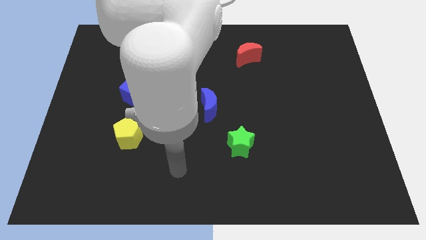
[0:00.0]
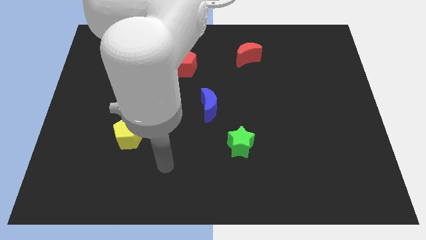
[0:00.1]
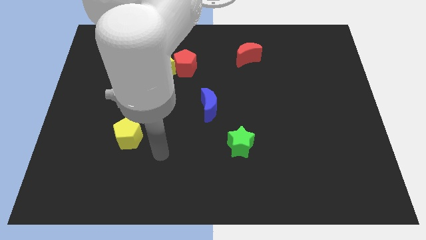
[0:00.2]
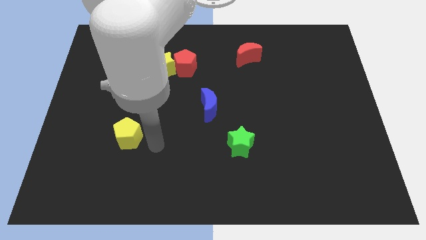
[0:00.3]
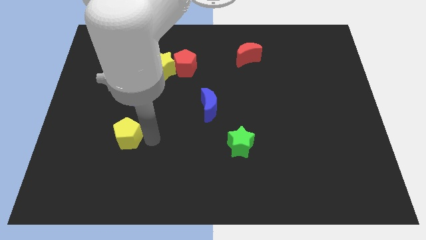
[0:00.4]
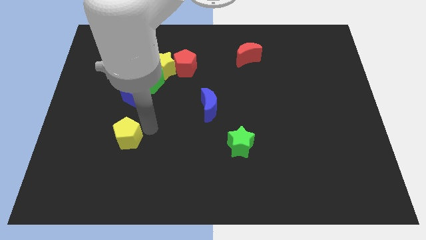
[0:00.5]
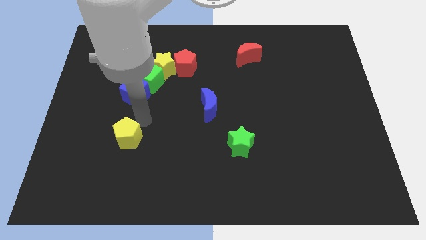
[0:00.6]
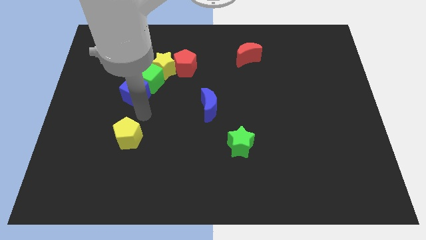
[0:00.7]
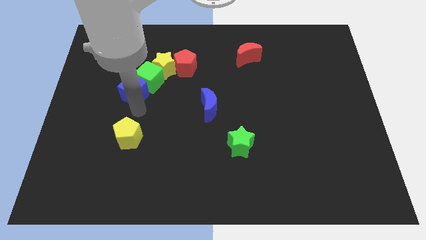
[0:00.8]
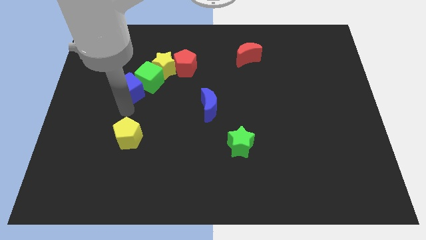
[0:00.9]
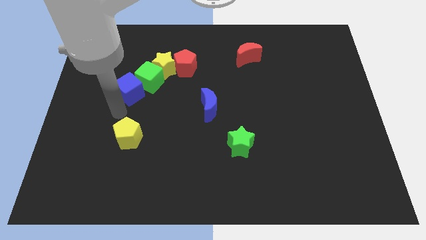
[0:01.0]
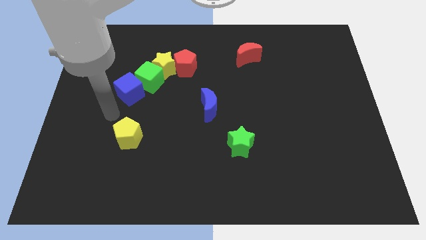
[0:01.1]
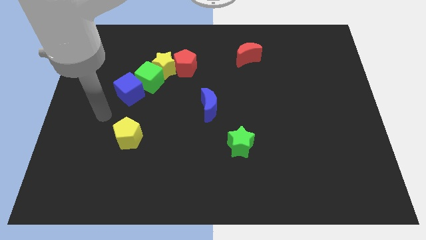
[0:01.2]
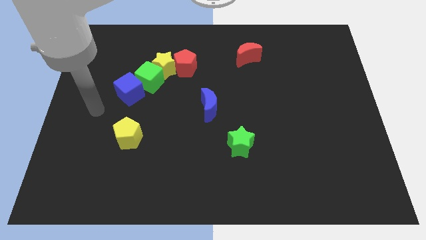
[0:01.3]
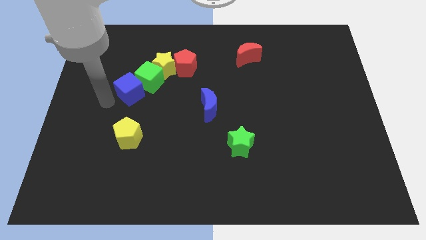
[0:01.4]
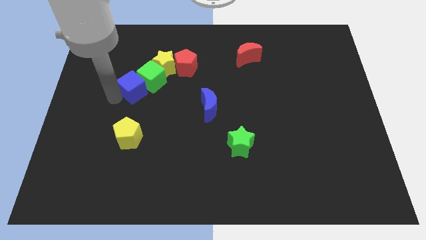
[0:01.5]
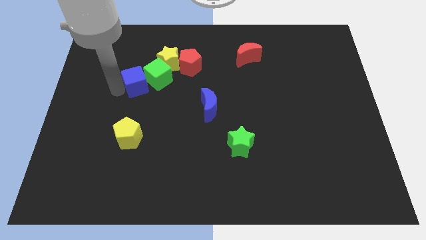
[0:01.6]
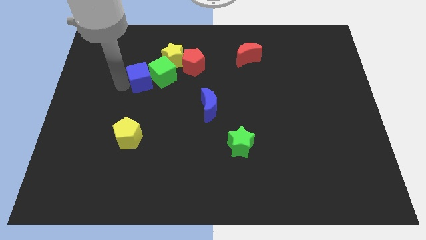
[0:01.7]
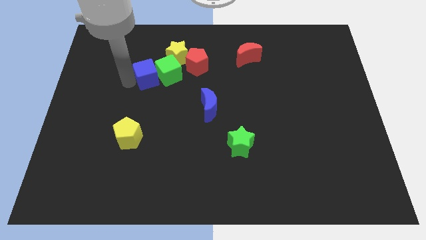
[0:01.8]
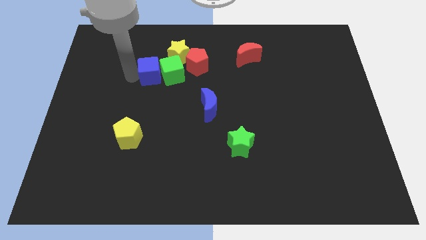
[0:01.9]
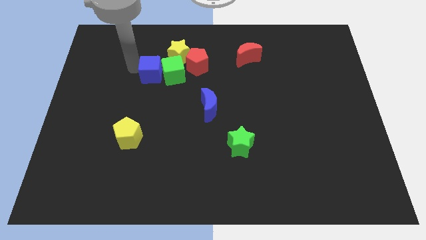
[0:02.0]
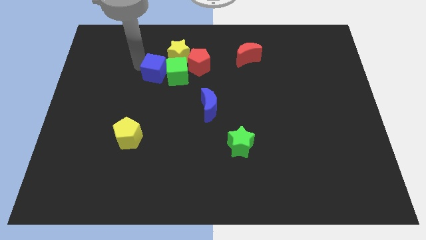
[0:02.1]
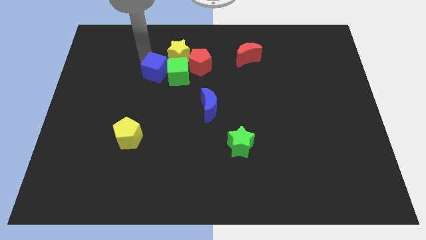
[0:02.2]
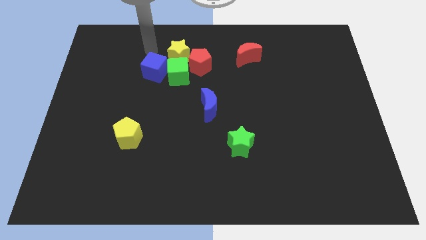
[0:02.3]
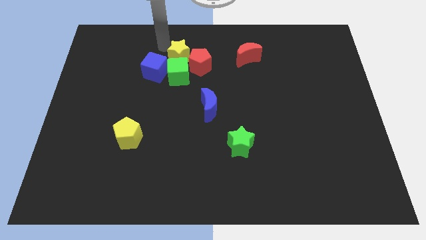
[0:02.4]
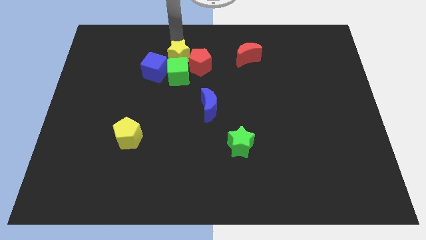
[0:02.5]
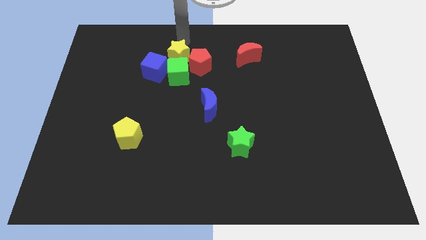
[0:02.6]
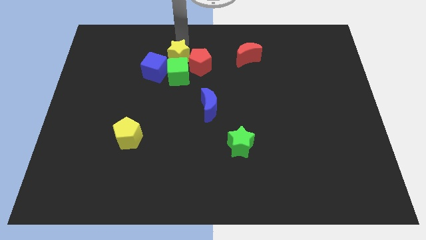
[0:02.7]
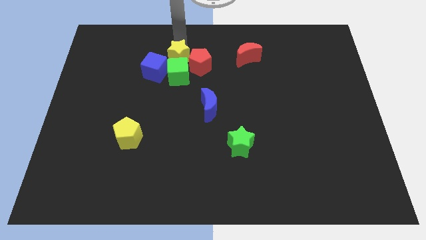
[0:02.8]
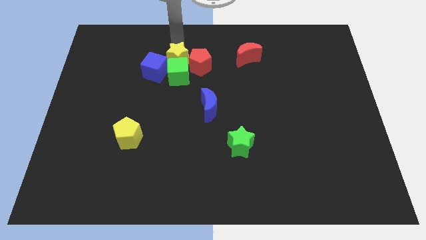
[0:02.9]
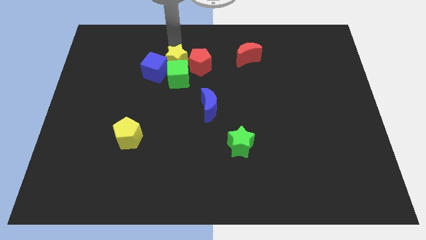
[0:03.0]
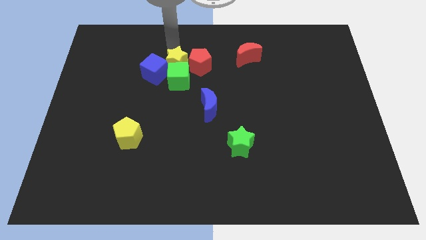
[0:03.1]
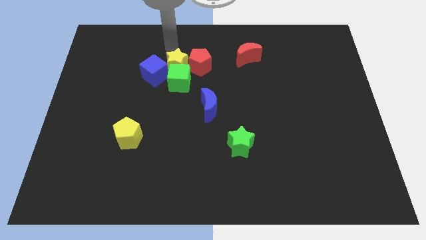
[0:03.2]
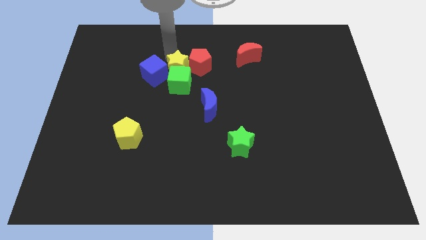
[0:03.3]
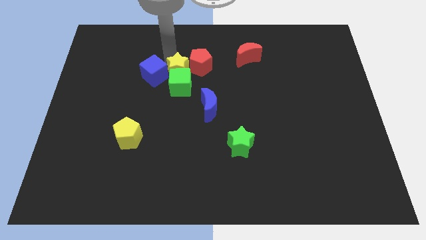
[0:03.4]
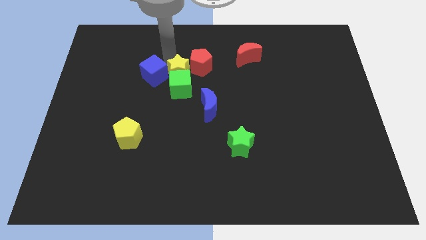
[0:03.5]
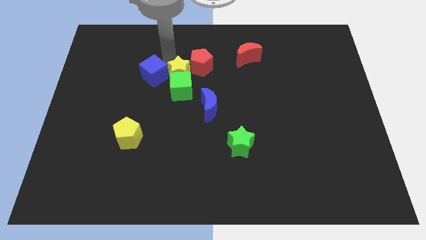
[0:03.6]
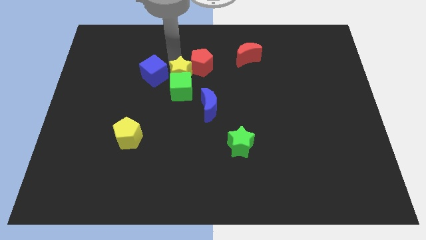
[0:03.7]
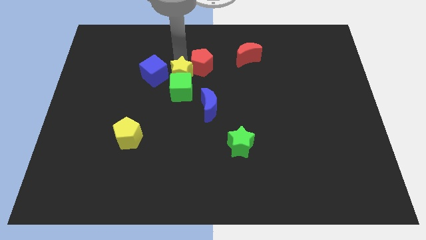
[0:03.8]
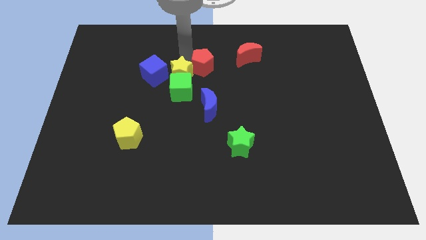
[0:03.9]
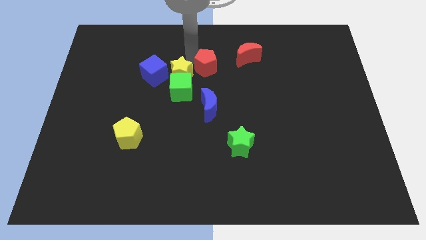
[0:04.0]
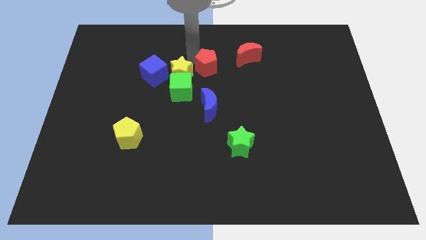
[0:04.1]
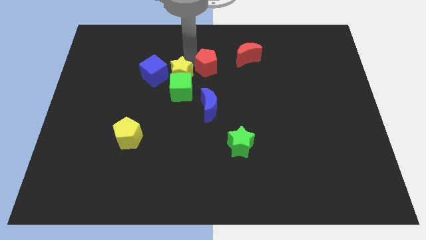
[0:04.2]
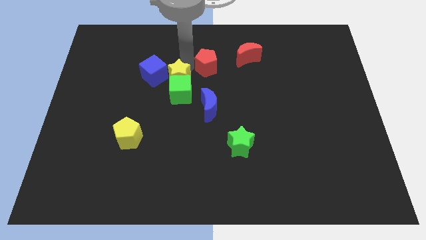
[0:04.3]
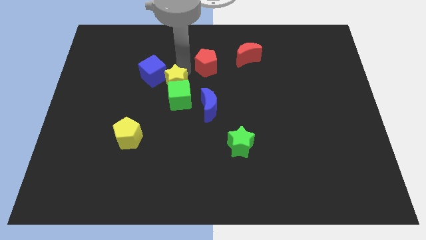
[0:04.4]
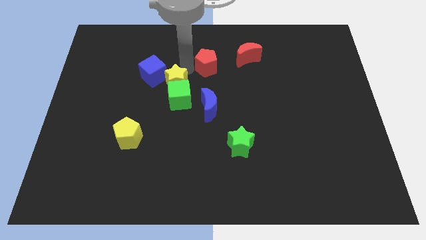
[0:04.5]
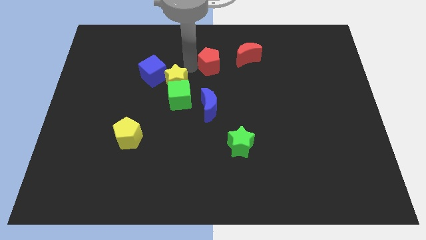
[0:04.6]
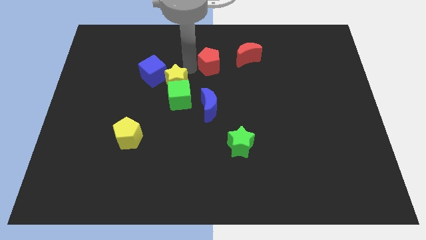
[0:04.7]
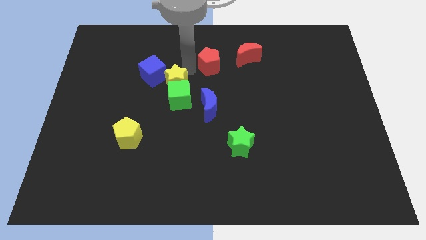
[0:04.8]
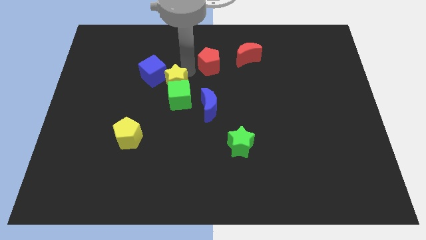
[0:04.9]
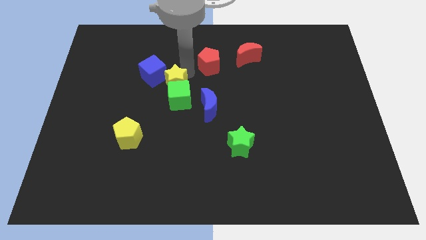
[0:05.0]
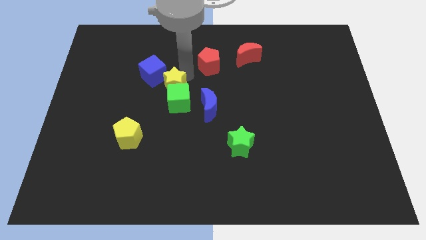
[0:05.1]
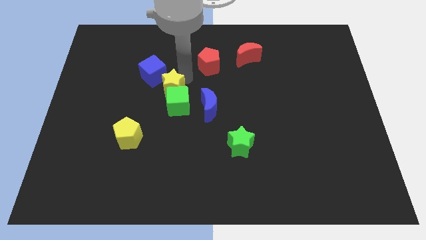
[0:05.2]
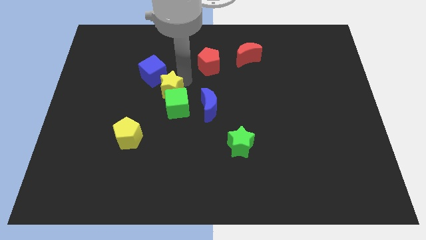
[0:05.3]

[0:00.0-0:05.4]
slightly move the yellow star down

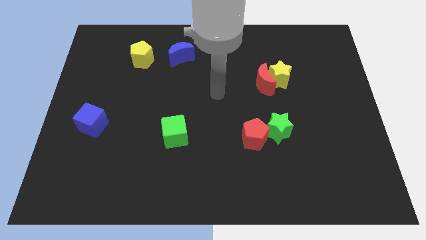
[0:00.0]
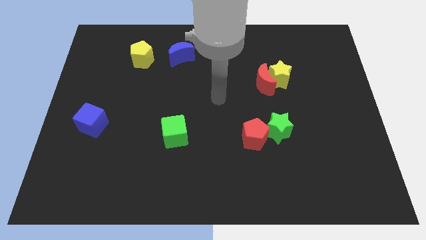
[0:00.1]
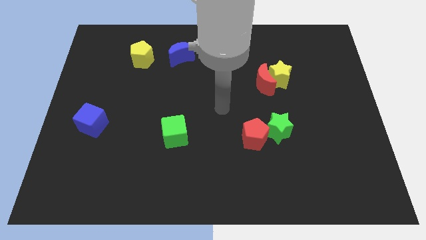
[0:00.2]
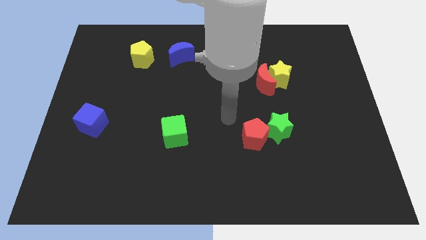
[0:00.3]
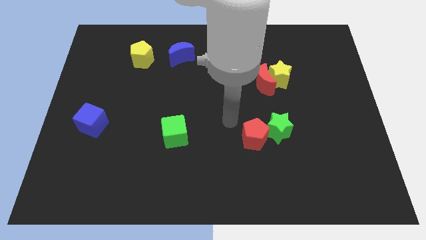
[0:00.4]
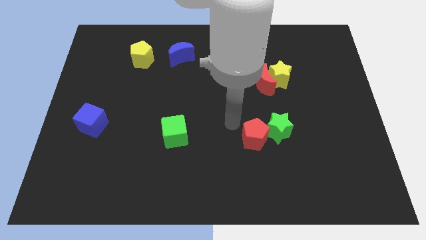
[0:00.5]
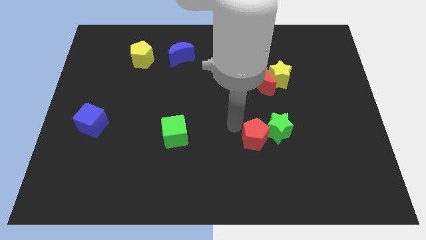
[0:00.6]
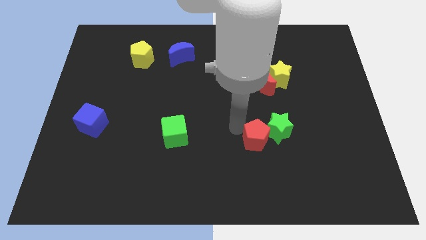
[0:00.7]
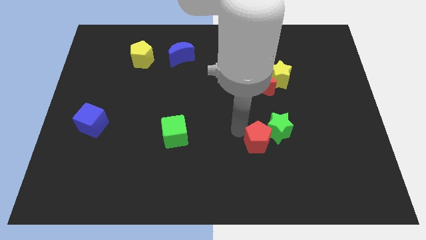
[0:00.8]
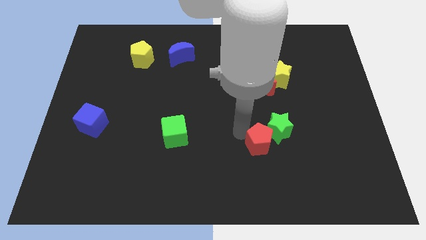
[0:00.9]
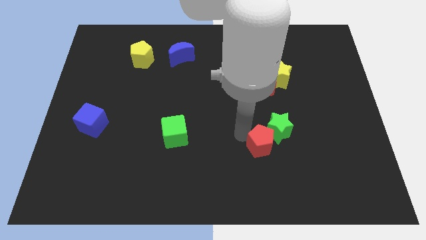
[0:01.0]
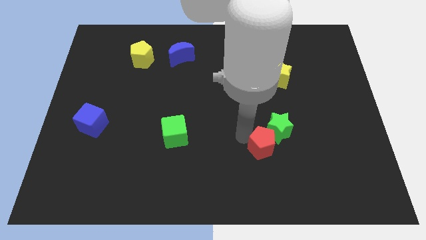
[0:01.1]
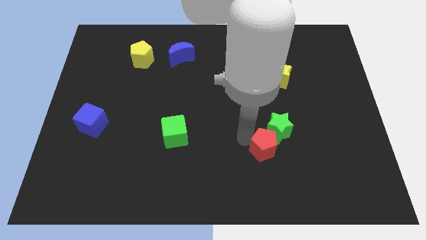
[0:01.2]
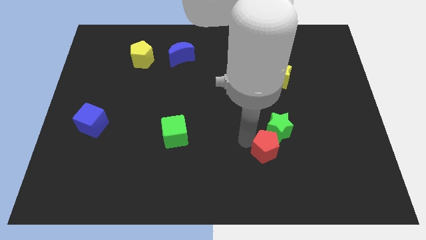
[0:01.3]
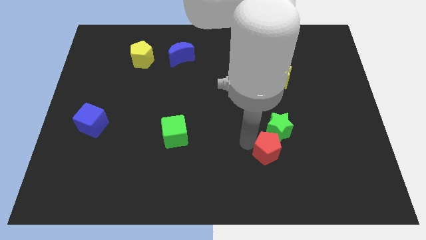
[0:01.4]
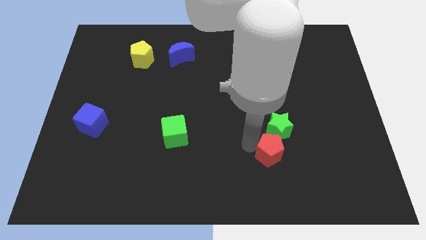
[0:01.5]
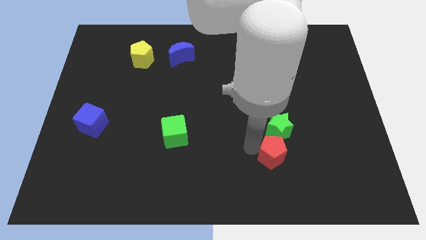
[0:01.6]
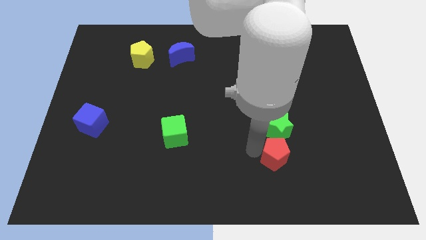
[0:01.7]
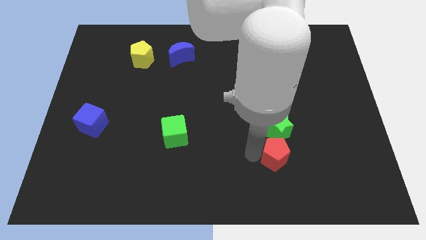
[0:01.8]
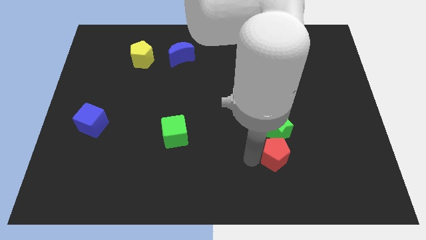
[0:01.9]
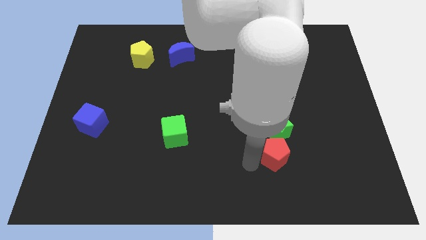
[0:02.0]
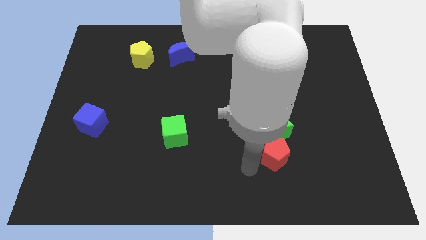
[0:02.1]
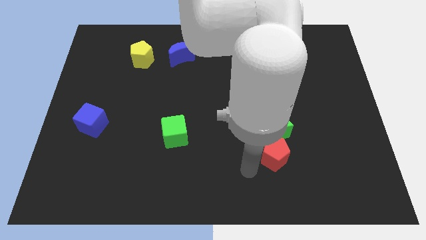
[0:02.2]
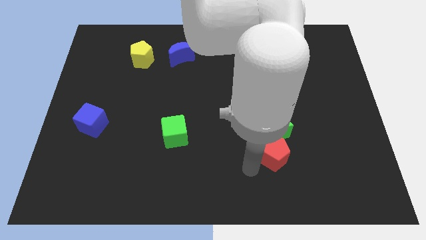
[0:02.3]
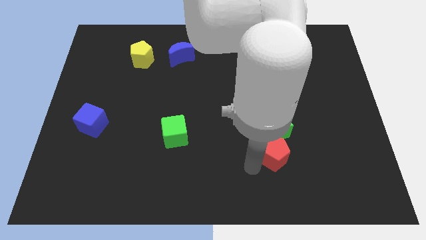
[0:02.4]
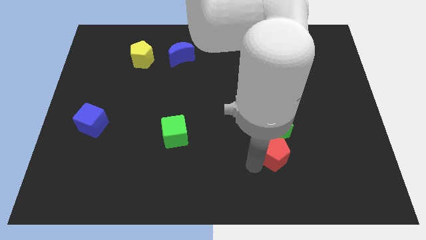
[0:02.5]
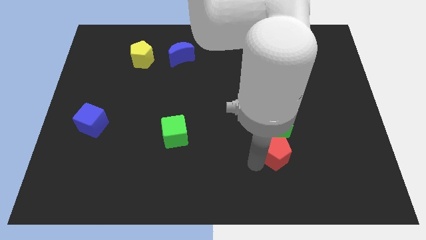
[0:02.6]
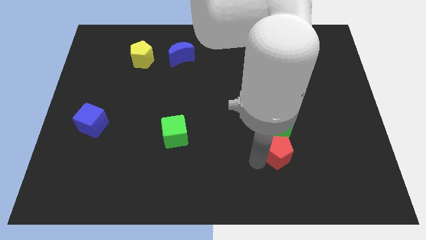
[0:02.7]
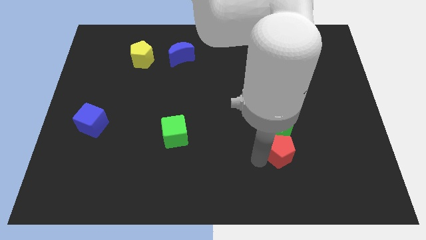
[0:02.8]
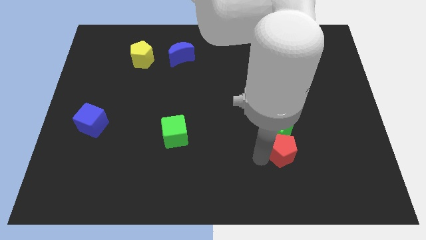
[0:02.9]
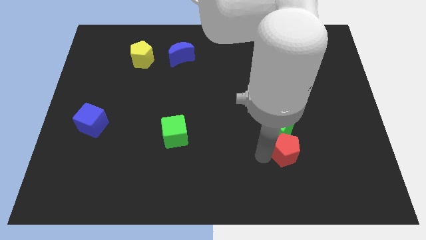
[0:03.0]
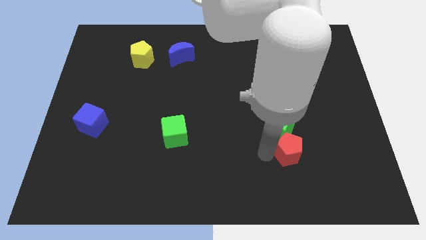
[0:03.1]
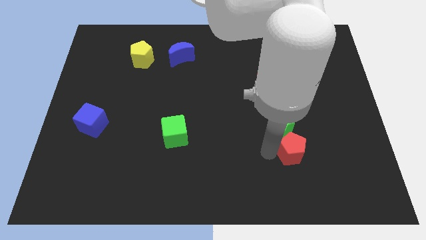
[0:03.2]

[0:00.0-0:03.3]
slightly push the red pentagon to the right
